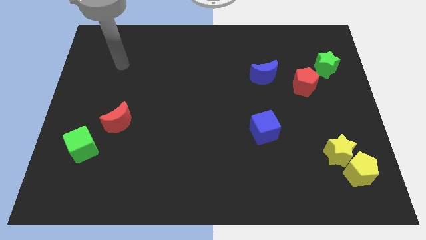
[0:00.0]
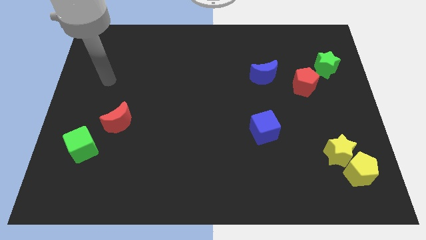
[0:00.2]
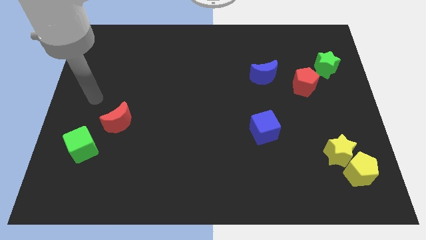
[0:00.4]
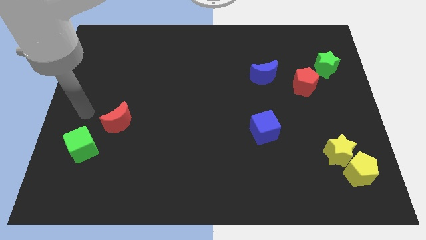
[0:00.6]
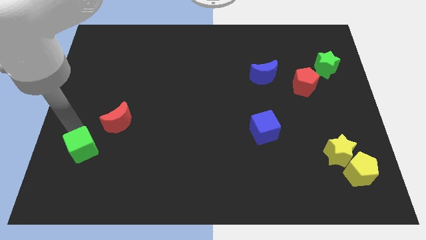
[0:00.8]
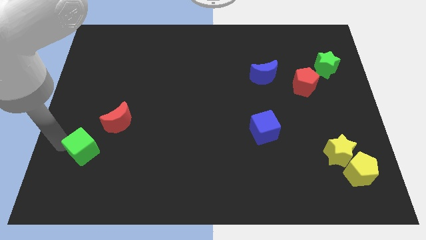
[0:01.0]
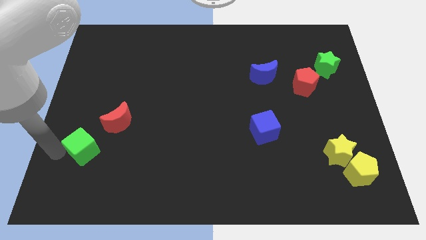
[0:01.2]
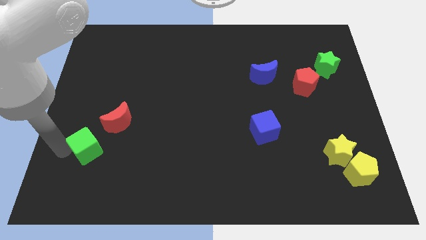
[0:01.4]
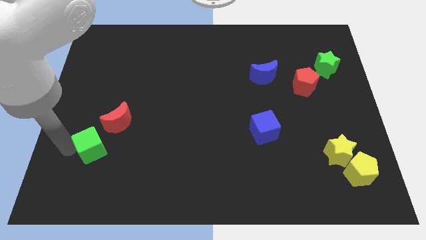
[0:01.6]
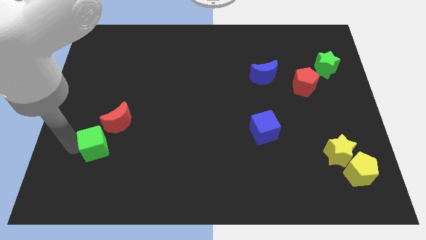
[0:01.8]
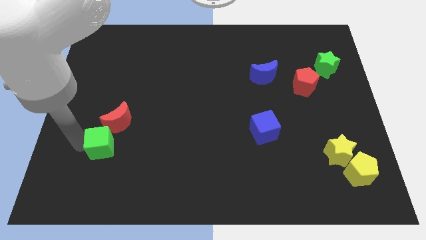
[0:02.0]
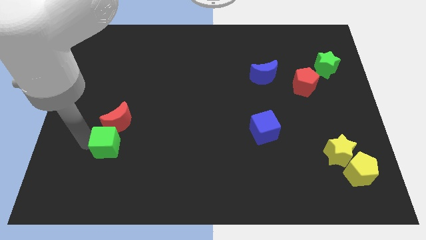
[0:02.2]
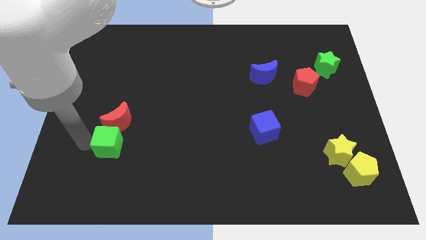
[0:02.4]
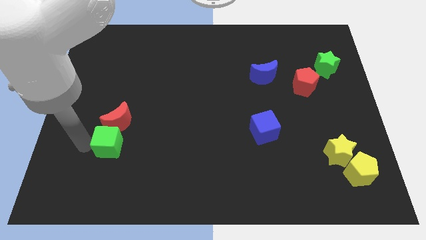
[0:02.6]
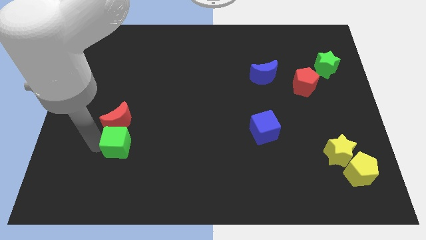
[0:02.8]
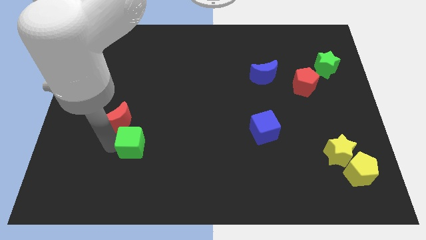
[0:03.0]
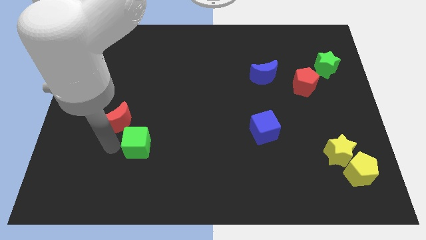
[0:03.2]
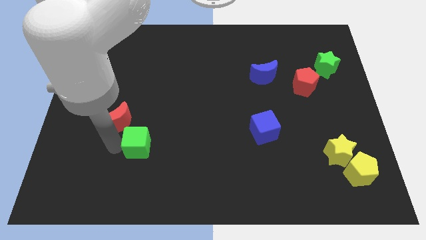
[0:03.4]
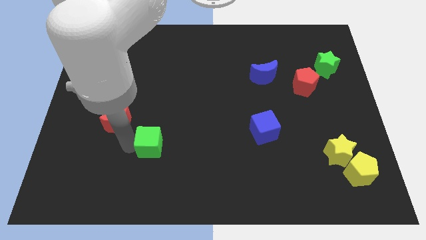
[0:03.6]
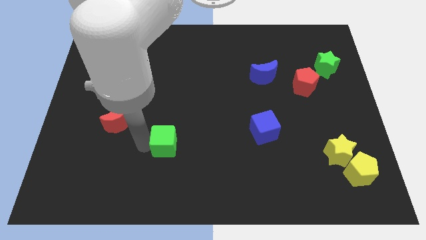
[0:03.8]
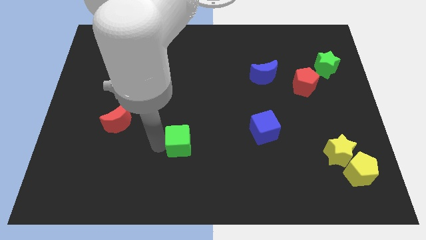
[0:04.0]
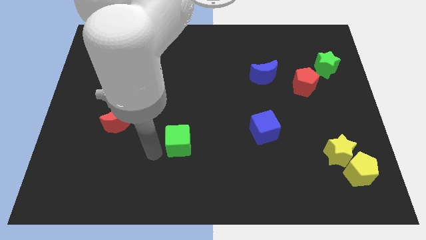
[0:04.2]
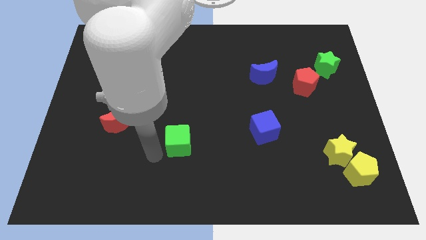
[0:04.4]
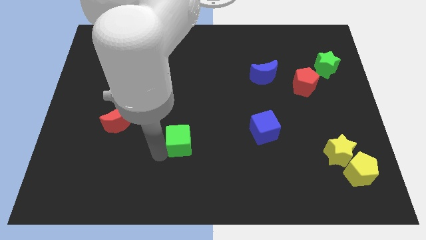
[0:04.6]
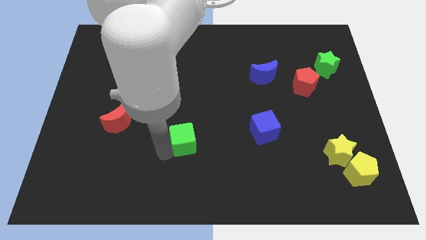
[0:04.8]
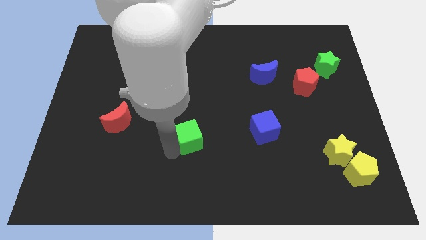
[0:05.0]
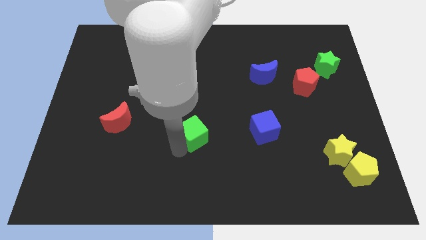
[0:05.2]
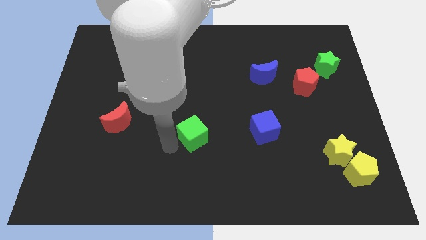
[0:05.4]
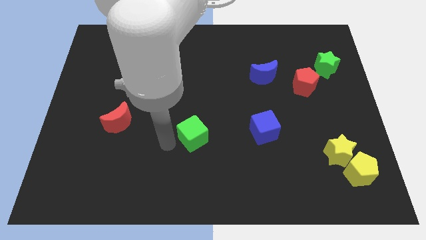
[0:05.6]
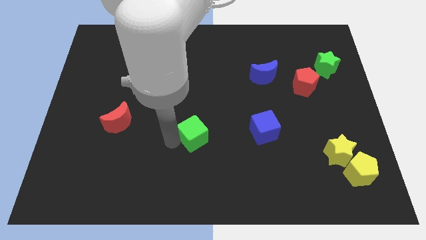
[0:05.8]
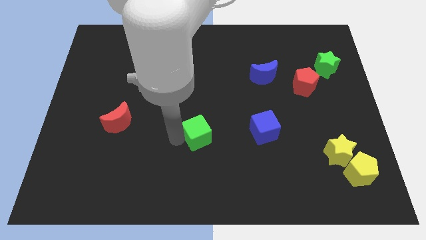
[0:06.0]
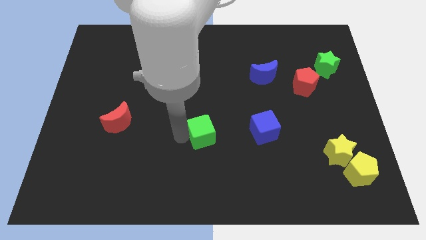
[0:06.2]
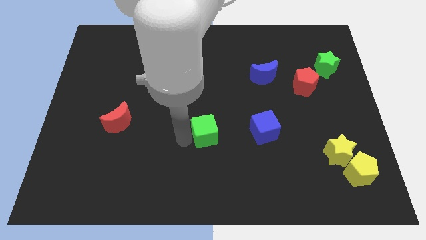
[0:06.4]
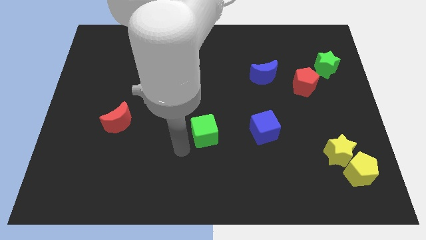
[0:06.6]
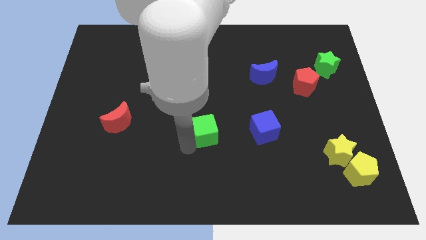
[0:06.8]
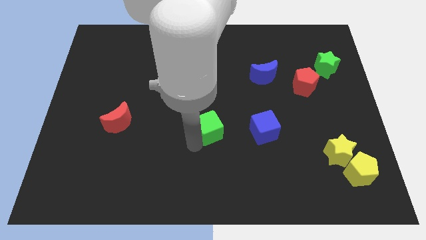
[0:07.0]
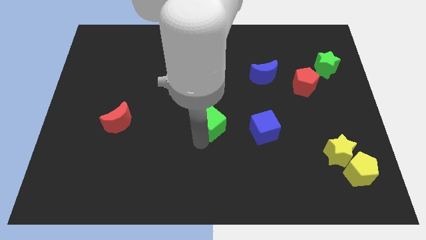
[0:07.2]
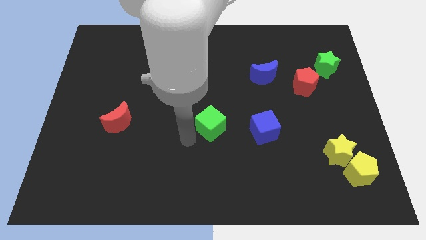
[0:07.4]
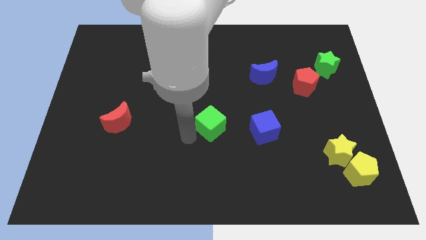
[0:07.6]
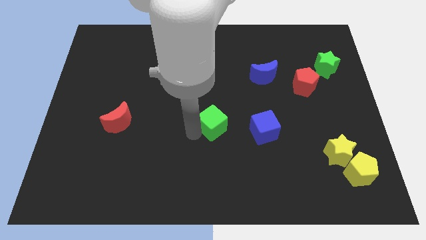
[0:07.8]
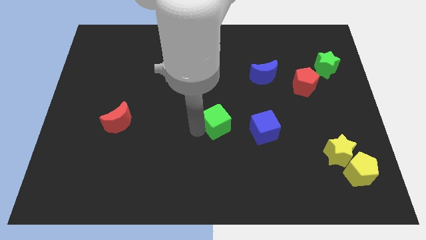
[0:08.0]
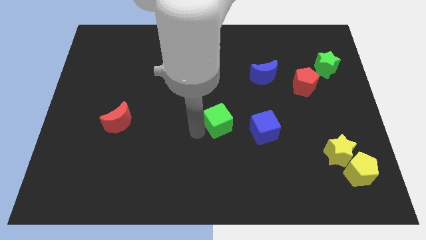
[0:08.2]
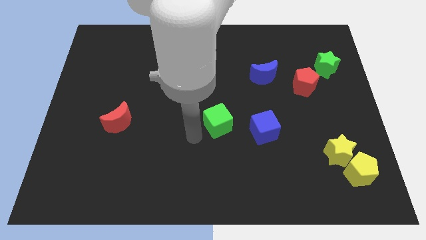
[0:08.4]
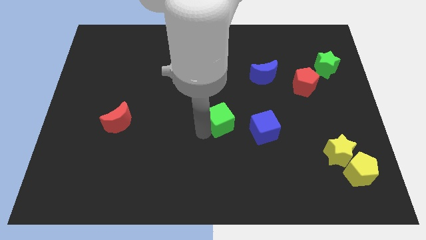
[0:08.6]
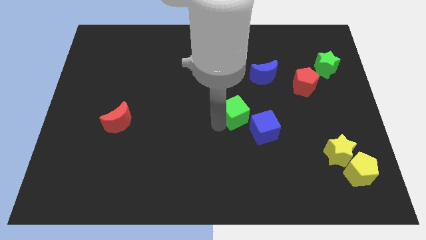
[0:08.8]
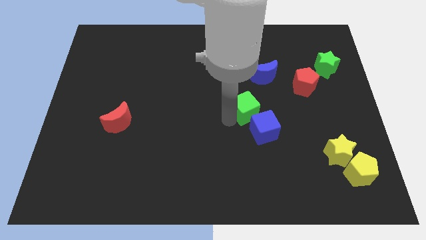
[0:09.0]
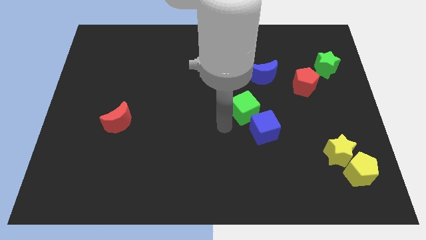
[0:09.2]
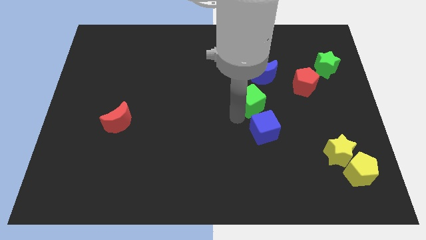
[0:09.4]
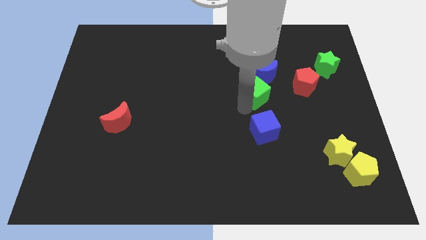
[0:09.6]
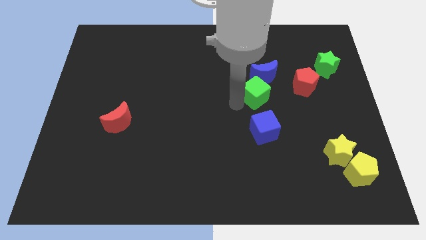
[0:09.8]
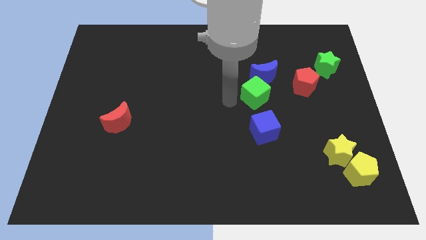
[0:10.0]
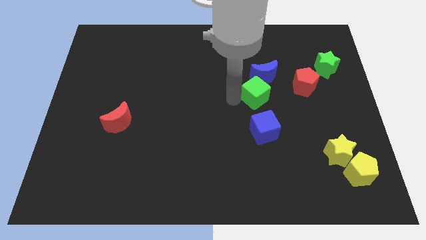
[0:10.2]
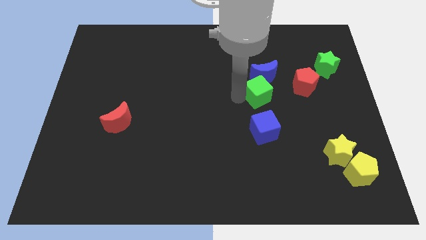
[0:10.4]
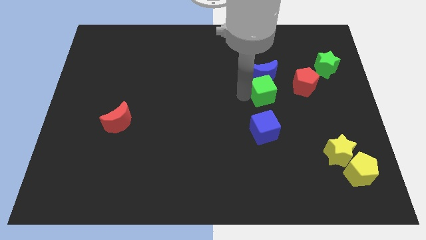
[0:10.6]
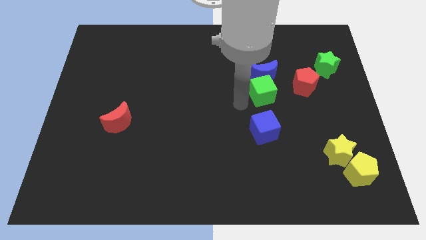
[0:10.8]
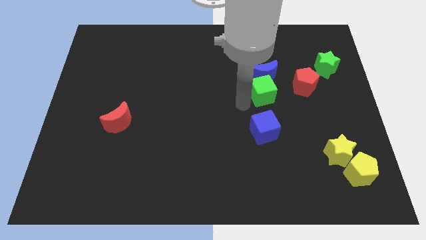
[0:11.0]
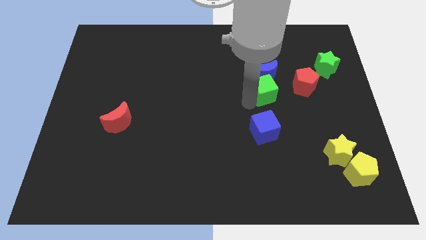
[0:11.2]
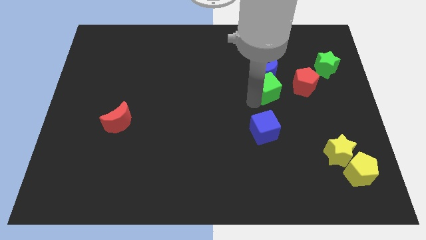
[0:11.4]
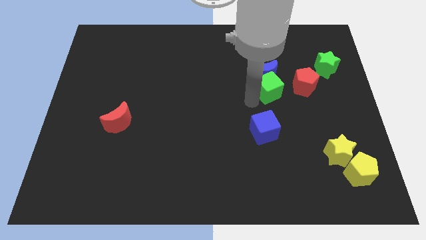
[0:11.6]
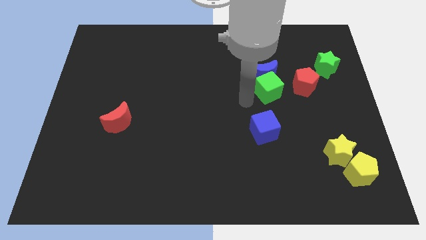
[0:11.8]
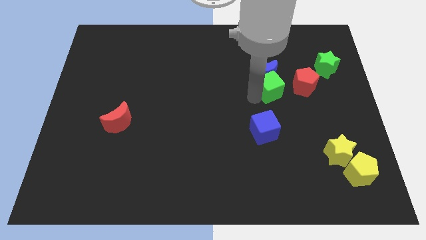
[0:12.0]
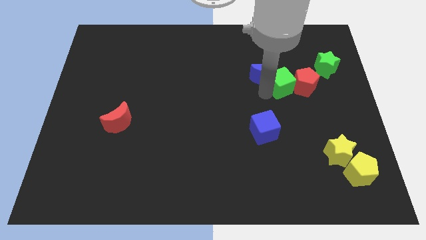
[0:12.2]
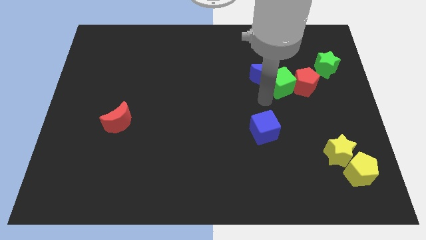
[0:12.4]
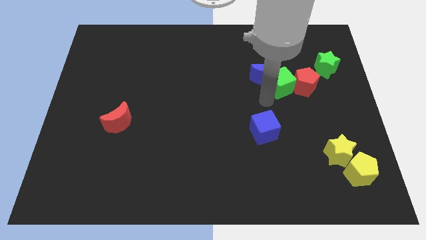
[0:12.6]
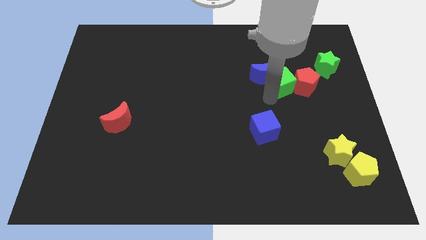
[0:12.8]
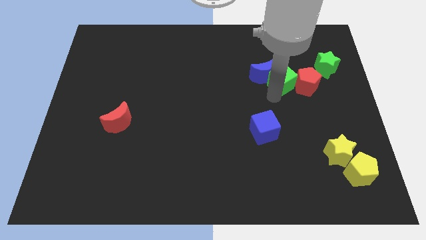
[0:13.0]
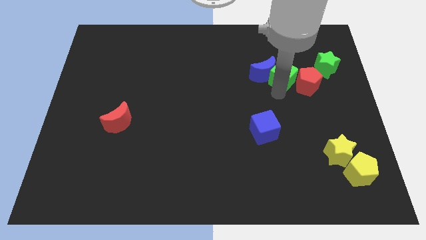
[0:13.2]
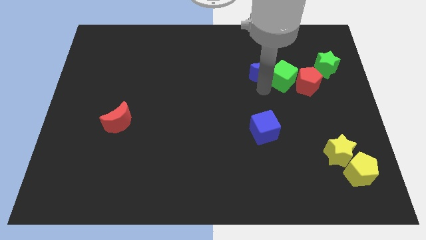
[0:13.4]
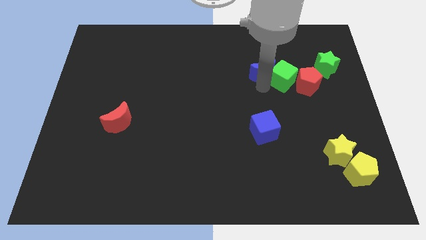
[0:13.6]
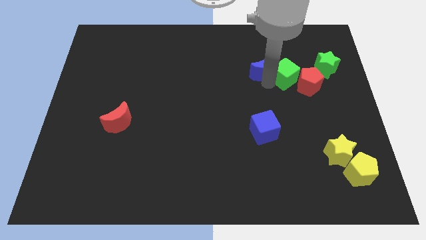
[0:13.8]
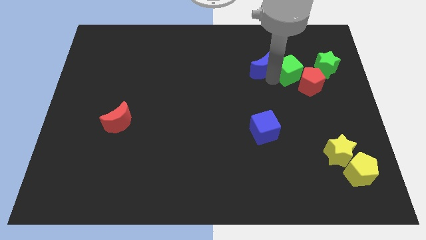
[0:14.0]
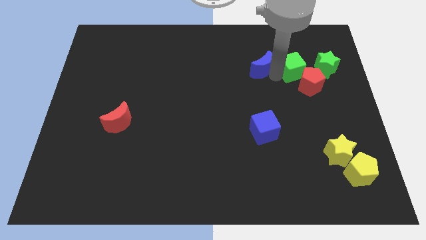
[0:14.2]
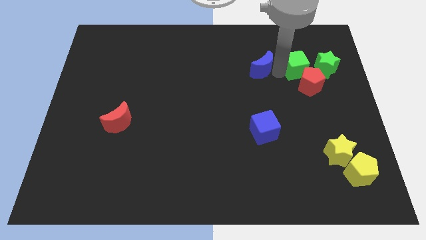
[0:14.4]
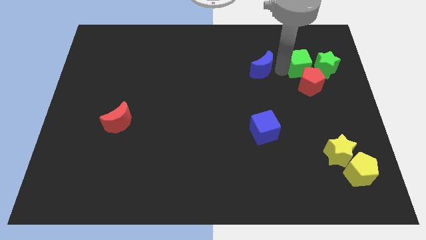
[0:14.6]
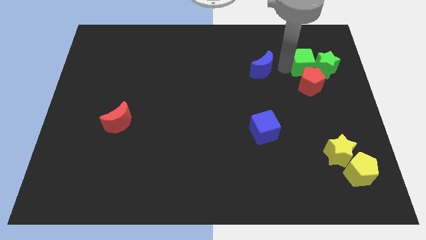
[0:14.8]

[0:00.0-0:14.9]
move the green cube to the green star
